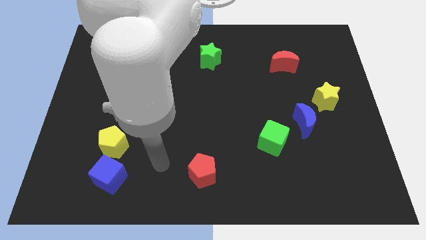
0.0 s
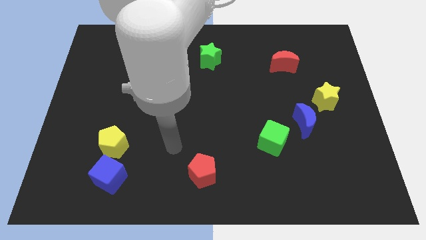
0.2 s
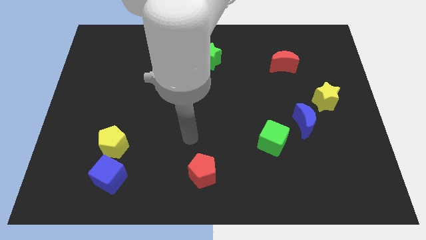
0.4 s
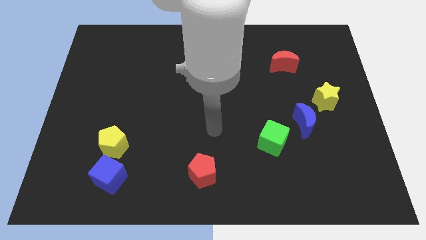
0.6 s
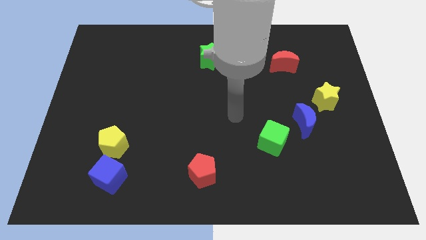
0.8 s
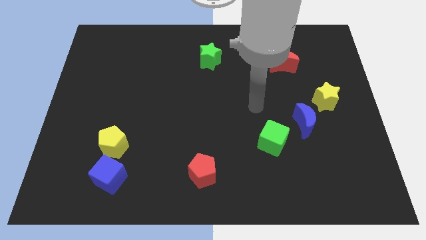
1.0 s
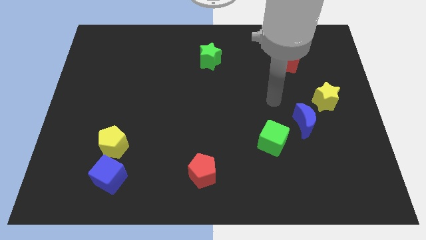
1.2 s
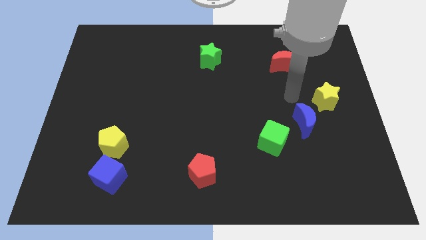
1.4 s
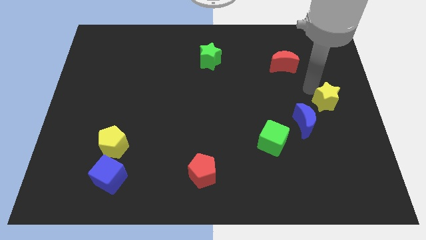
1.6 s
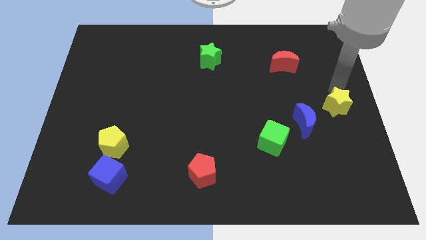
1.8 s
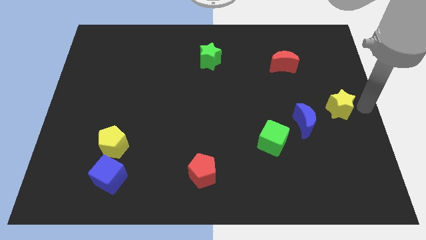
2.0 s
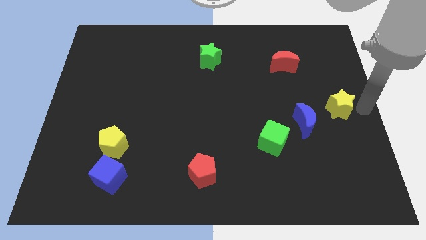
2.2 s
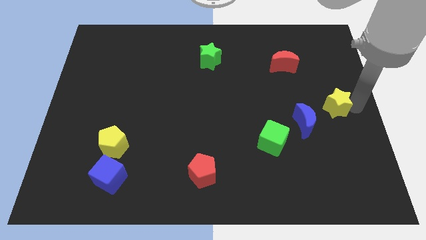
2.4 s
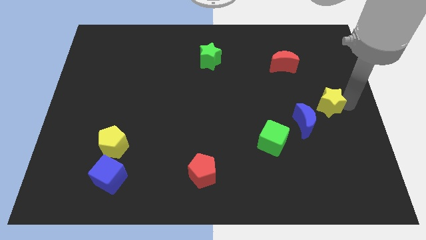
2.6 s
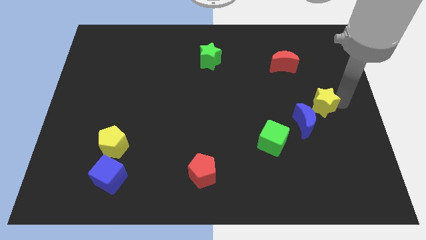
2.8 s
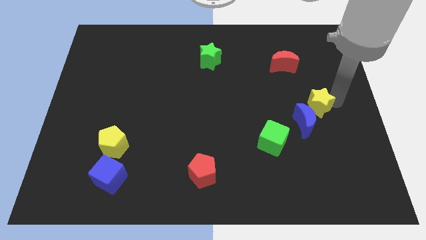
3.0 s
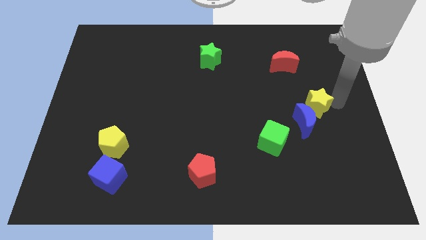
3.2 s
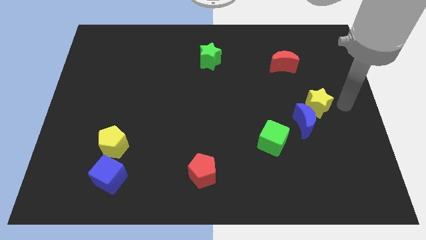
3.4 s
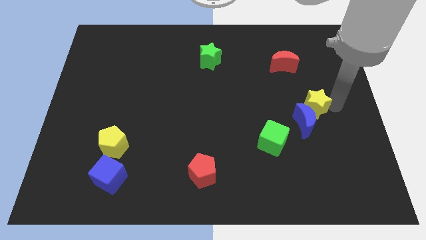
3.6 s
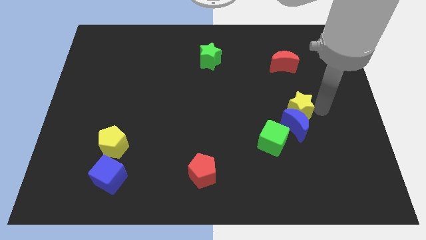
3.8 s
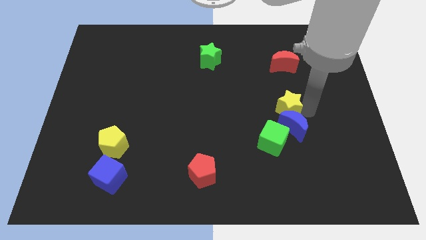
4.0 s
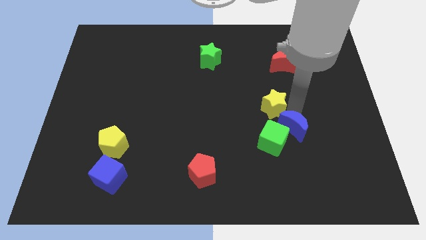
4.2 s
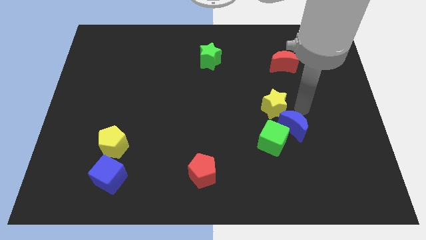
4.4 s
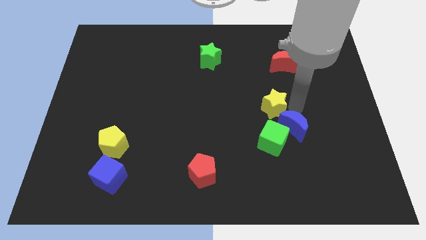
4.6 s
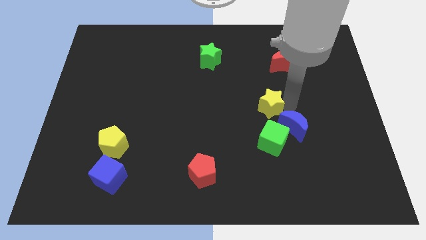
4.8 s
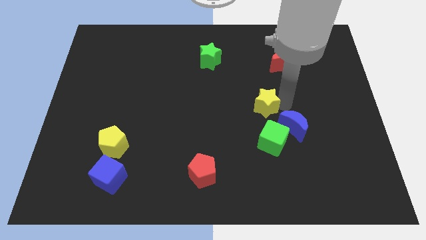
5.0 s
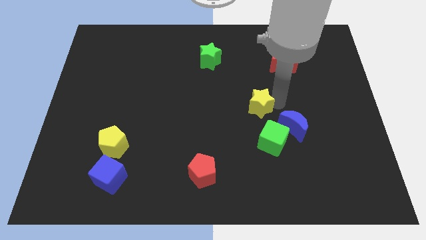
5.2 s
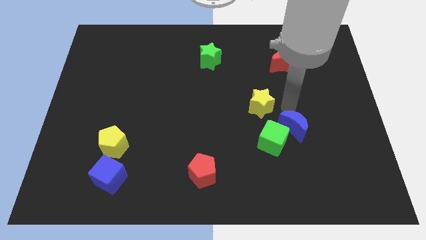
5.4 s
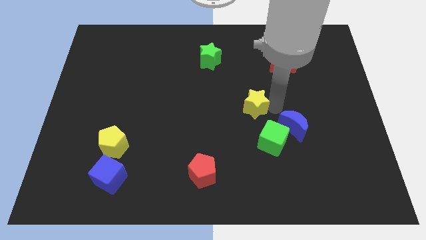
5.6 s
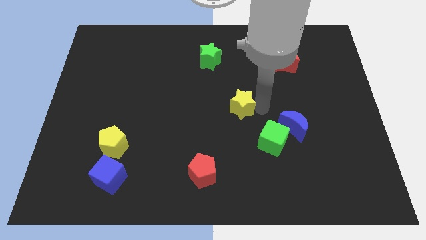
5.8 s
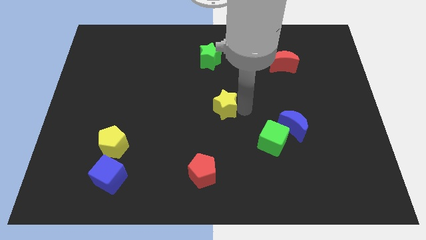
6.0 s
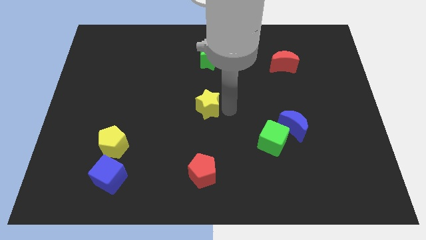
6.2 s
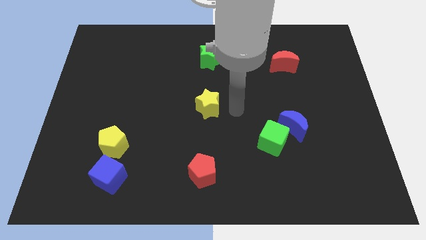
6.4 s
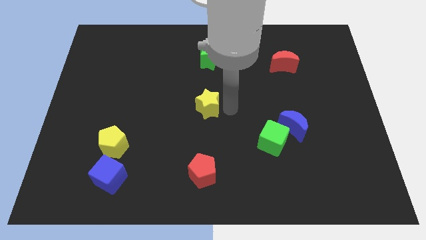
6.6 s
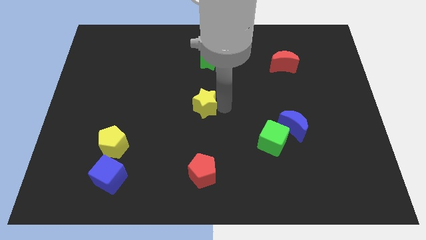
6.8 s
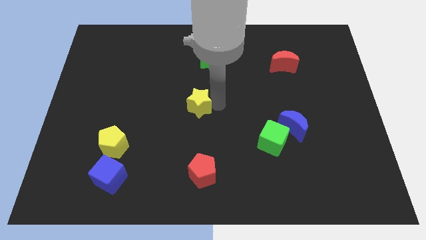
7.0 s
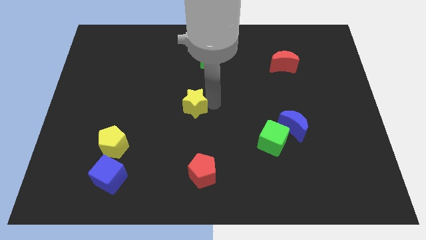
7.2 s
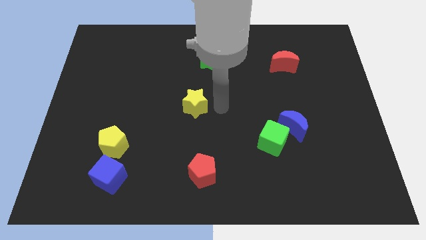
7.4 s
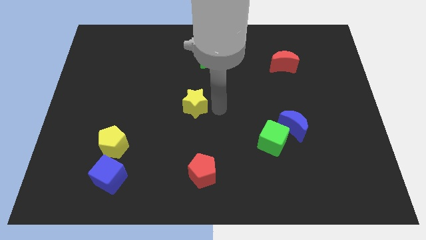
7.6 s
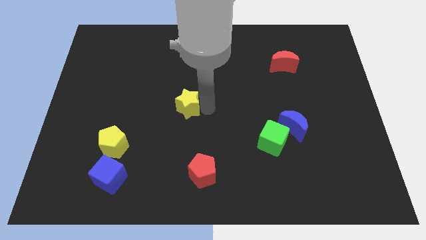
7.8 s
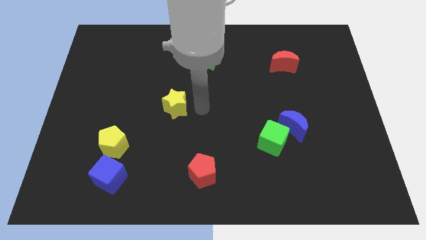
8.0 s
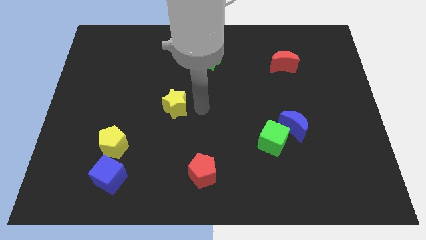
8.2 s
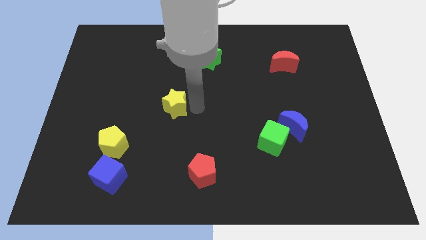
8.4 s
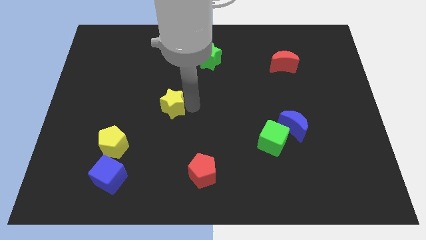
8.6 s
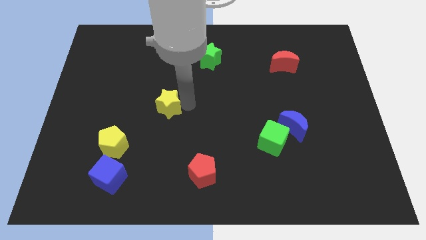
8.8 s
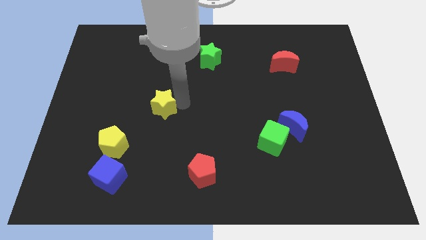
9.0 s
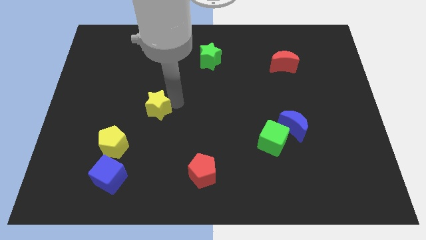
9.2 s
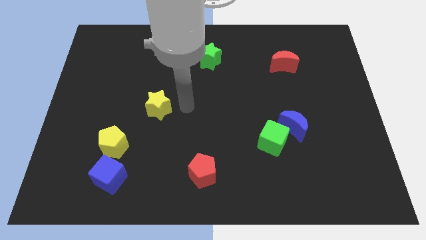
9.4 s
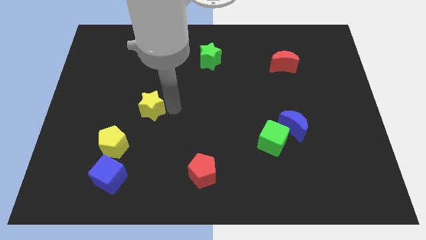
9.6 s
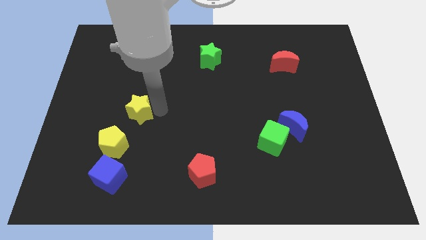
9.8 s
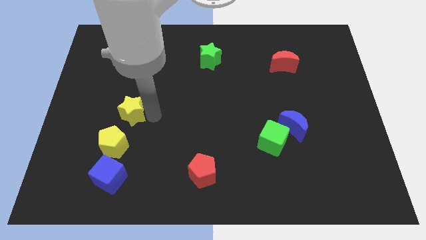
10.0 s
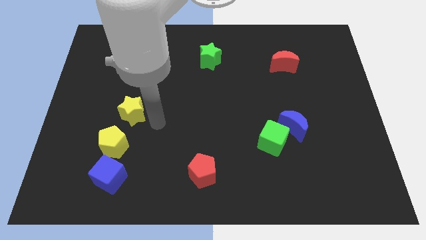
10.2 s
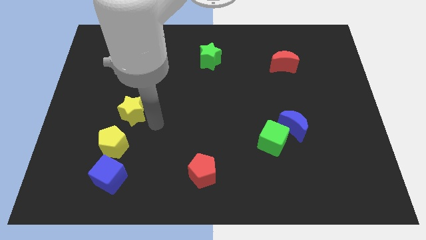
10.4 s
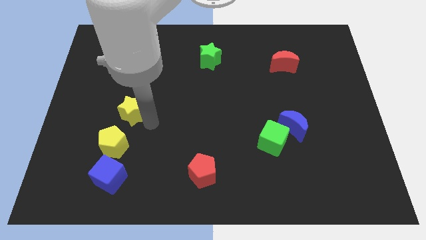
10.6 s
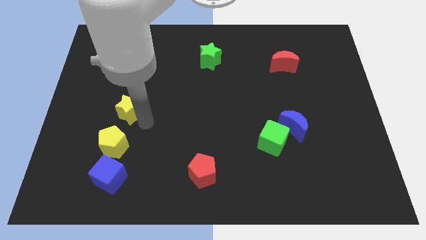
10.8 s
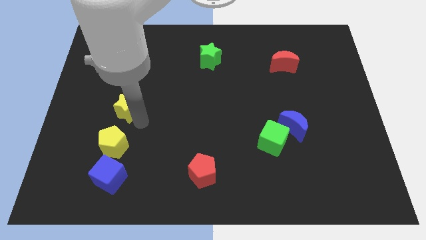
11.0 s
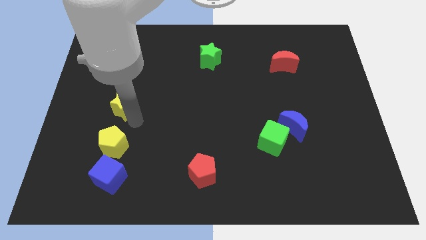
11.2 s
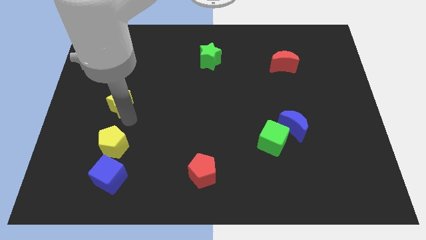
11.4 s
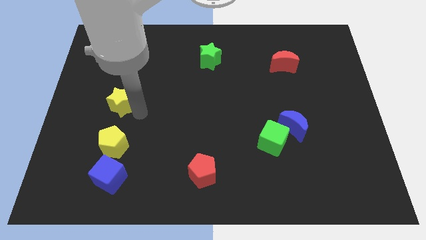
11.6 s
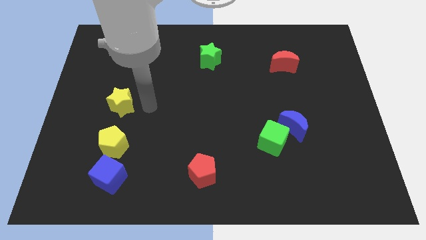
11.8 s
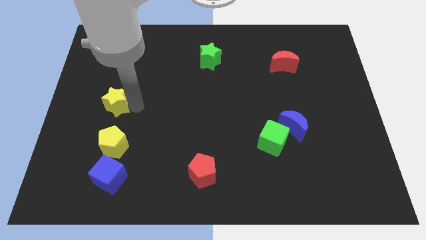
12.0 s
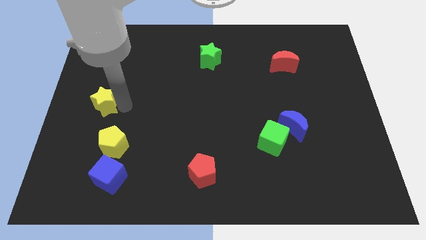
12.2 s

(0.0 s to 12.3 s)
move the yellow star to the left side

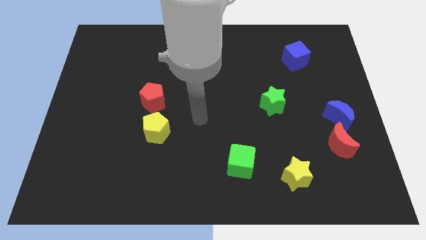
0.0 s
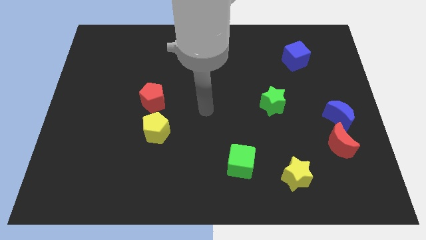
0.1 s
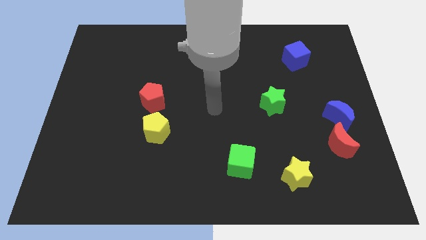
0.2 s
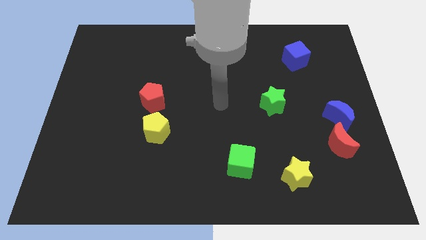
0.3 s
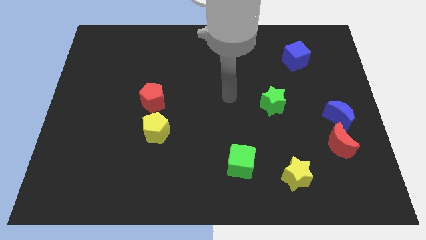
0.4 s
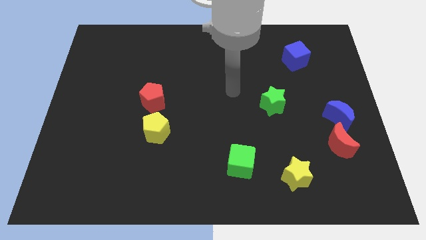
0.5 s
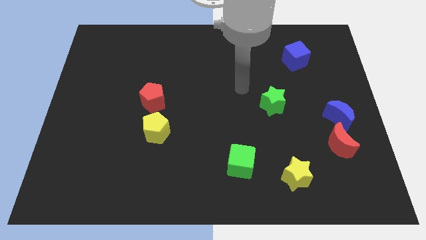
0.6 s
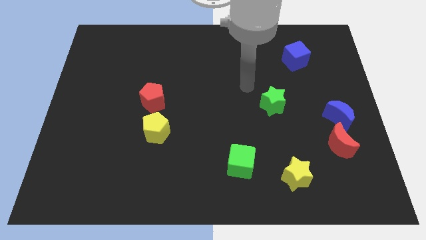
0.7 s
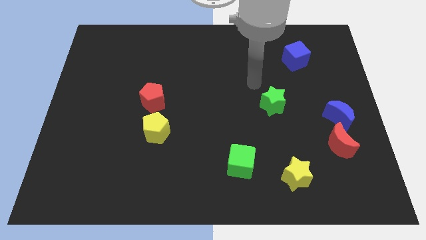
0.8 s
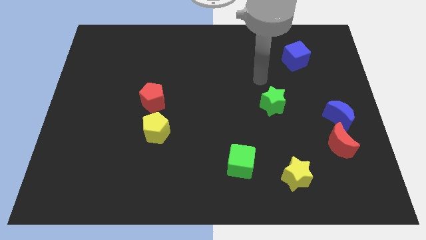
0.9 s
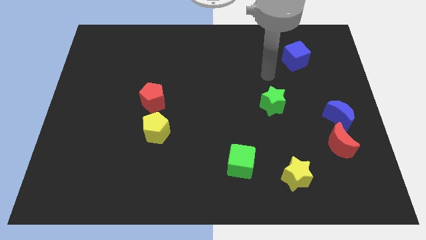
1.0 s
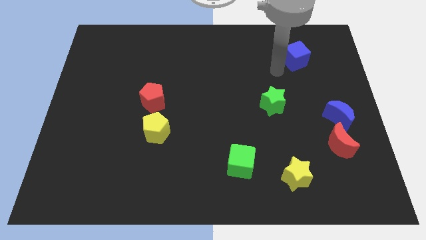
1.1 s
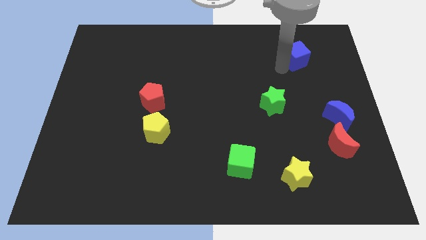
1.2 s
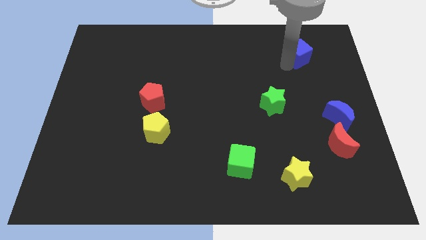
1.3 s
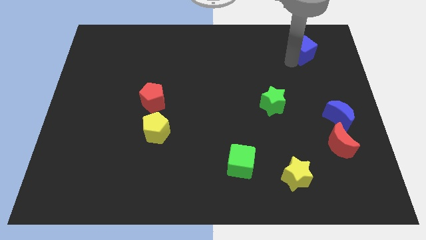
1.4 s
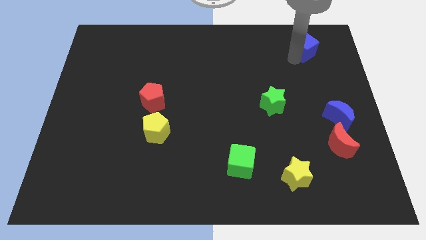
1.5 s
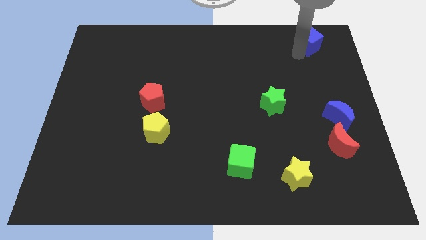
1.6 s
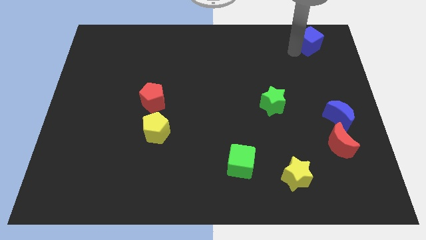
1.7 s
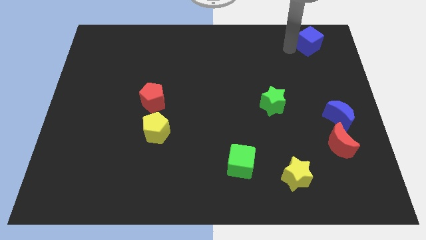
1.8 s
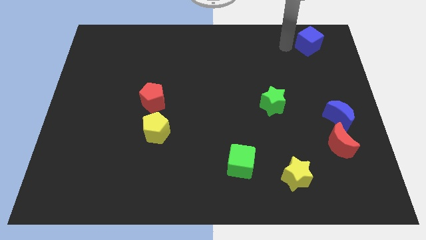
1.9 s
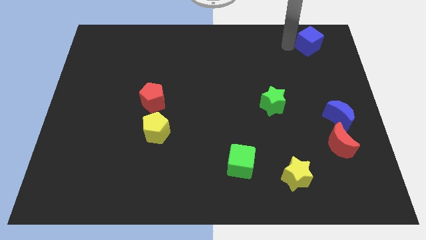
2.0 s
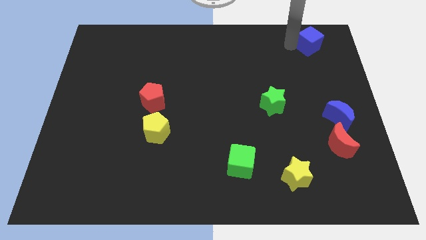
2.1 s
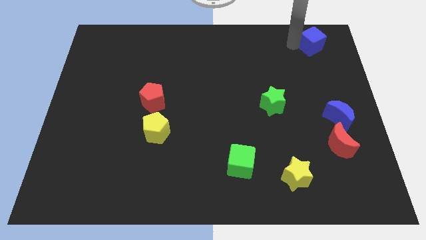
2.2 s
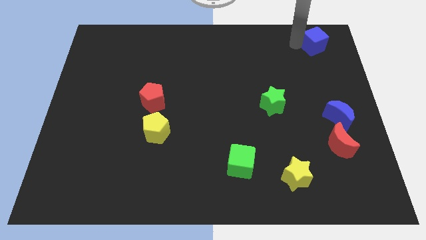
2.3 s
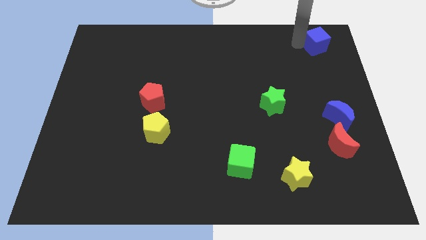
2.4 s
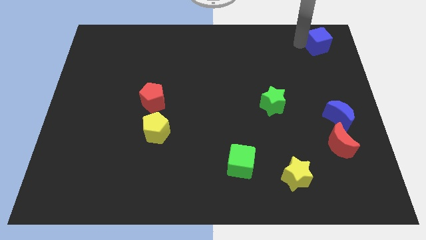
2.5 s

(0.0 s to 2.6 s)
slide the blue cube to the top right corner
